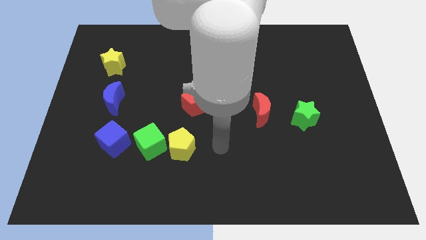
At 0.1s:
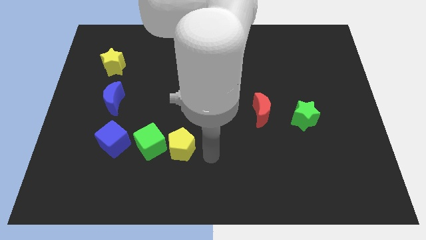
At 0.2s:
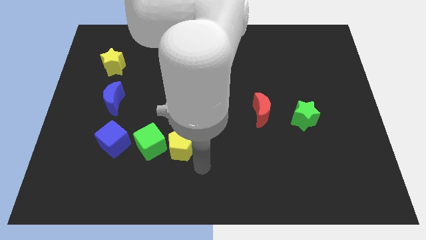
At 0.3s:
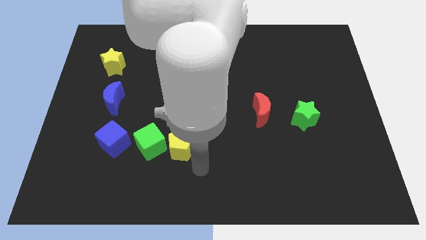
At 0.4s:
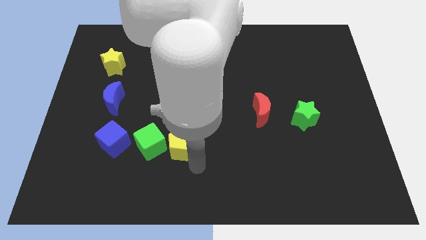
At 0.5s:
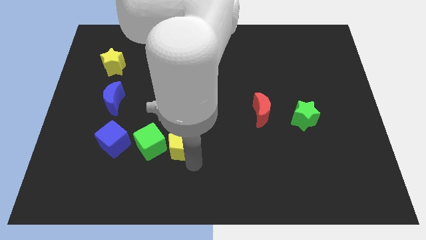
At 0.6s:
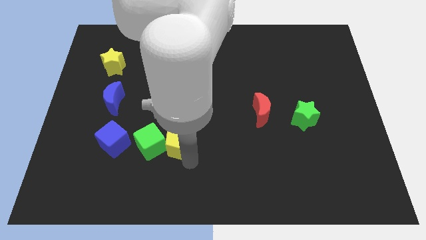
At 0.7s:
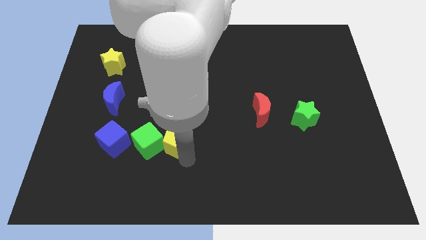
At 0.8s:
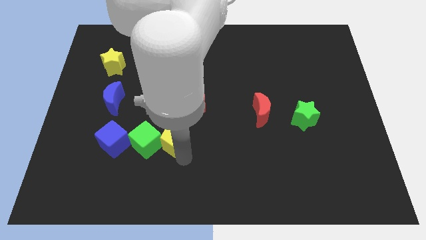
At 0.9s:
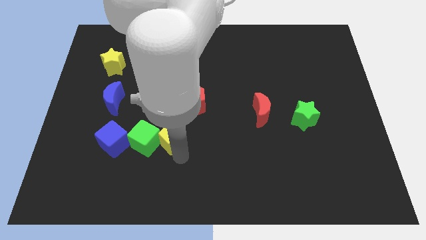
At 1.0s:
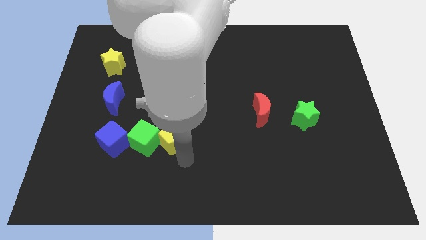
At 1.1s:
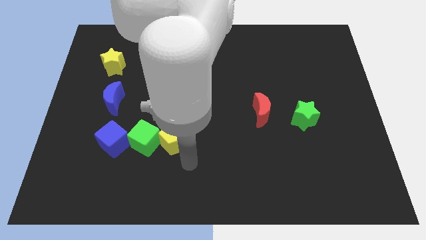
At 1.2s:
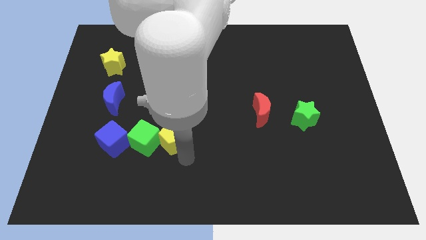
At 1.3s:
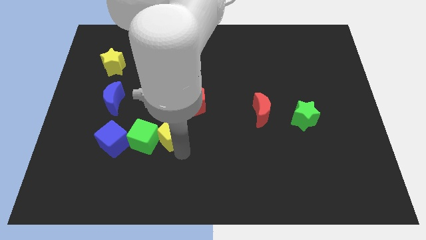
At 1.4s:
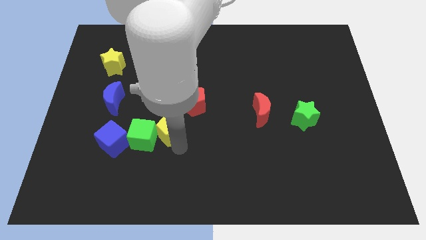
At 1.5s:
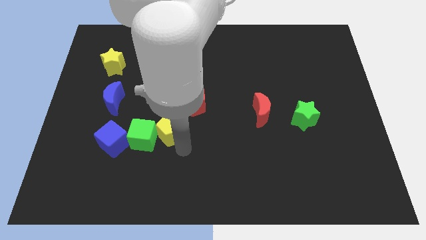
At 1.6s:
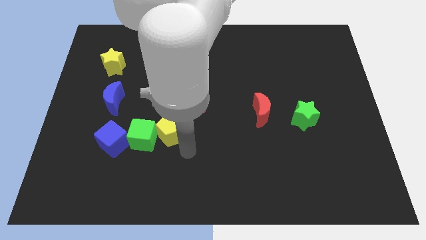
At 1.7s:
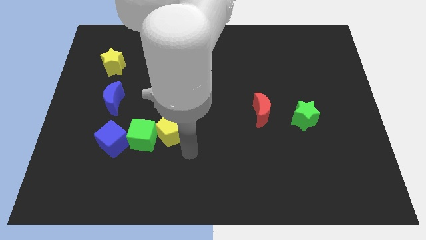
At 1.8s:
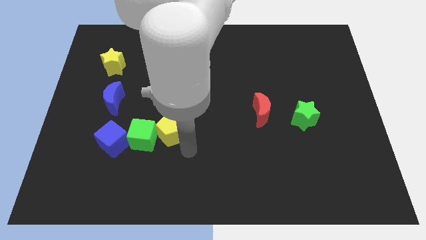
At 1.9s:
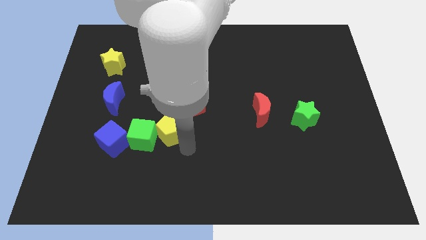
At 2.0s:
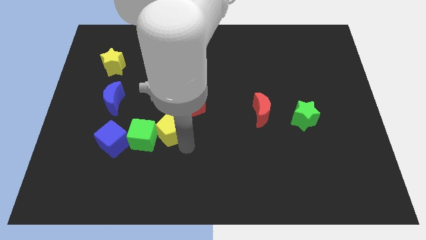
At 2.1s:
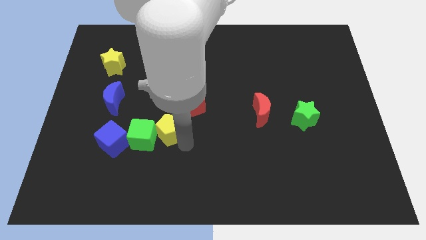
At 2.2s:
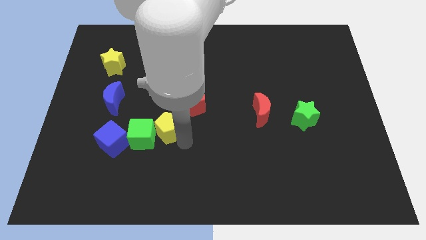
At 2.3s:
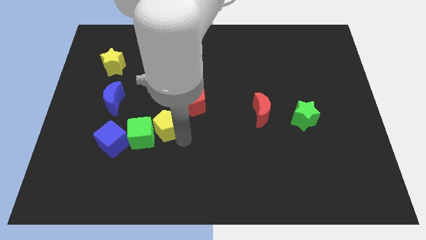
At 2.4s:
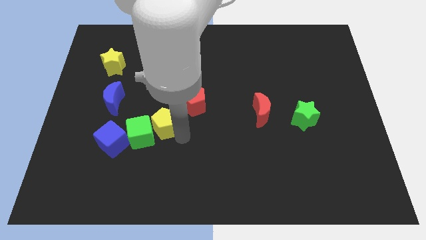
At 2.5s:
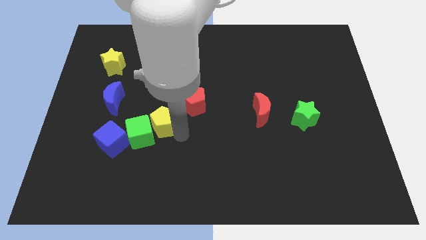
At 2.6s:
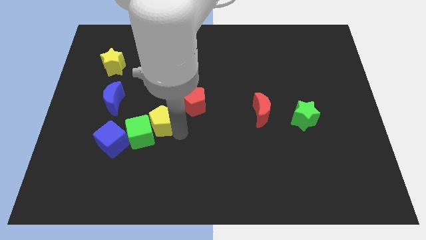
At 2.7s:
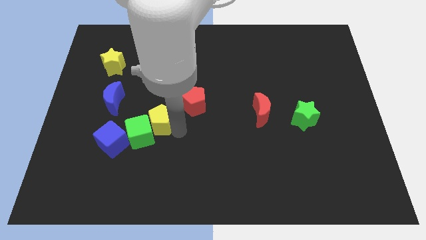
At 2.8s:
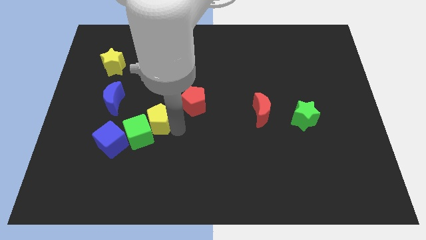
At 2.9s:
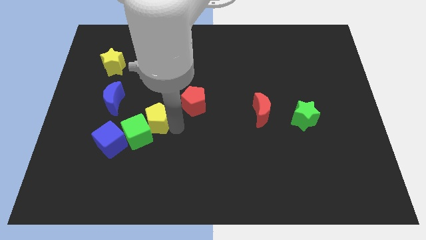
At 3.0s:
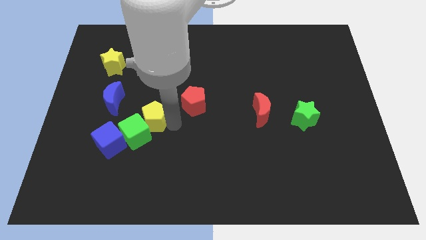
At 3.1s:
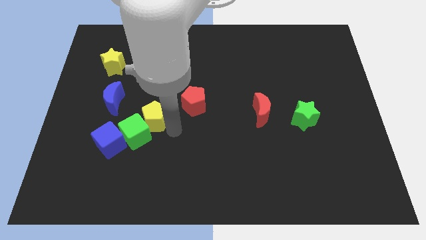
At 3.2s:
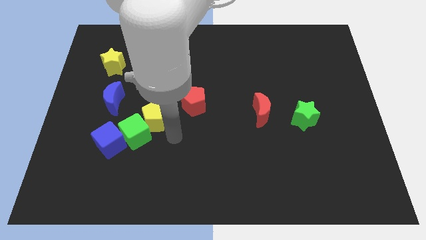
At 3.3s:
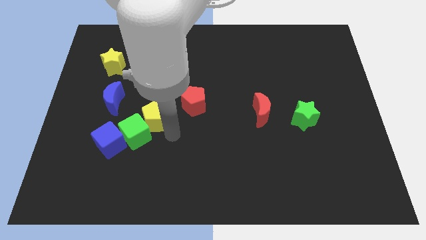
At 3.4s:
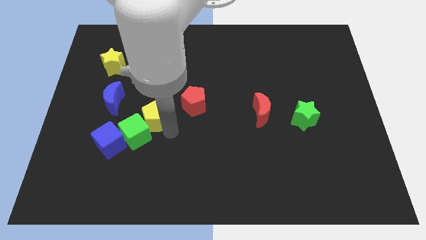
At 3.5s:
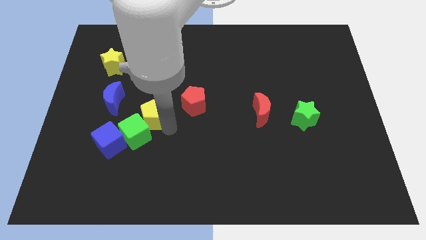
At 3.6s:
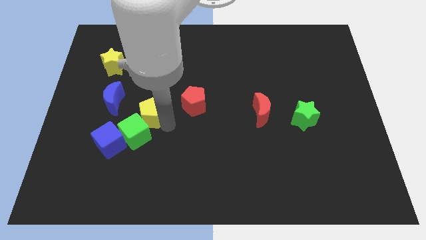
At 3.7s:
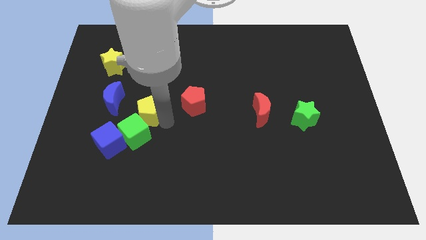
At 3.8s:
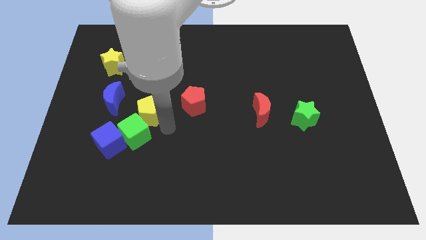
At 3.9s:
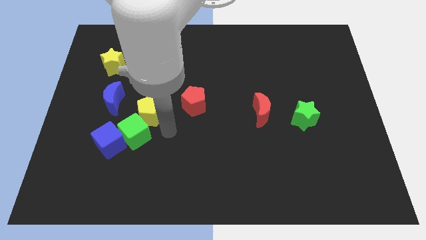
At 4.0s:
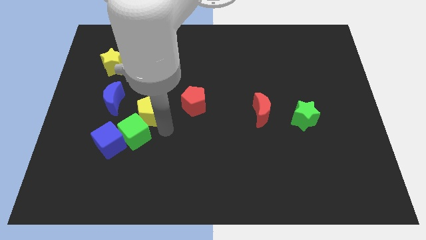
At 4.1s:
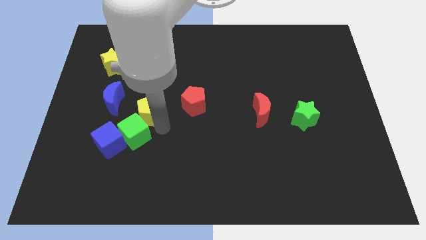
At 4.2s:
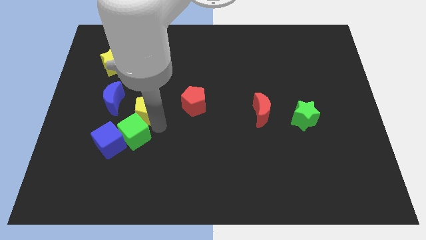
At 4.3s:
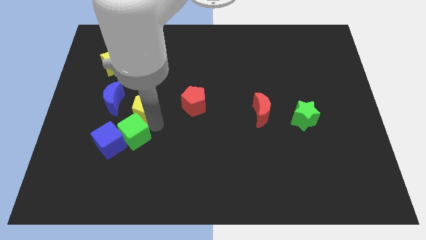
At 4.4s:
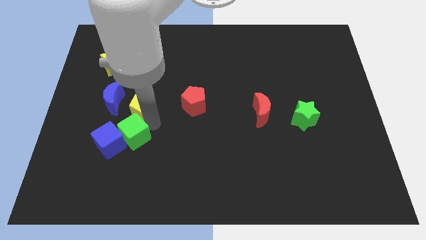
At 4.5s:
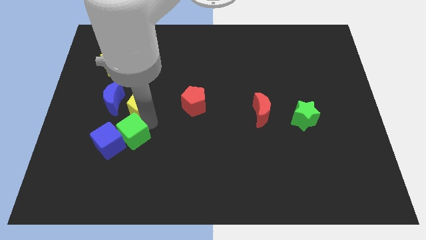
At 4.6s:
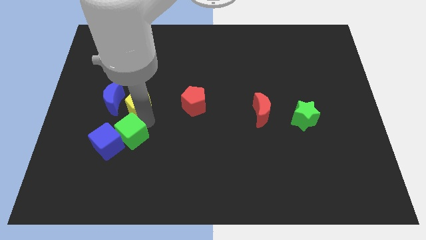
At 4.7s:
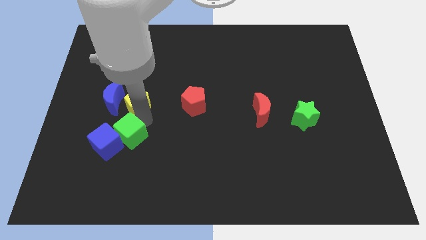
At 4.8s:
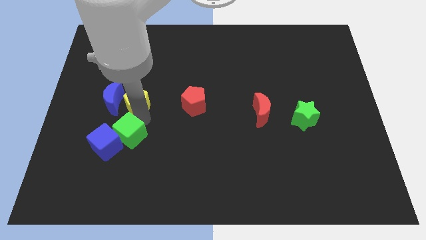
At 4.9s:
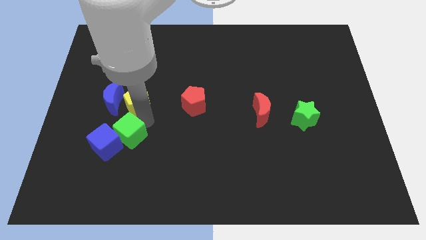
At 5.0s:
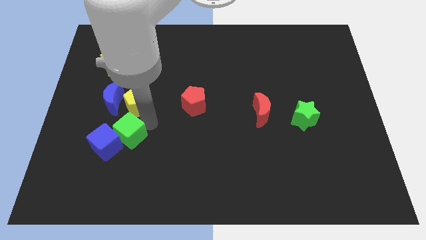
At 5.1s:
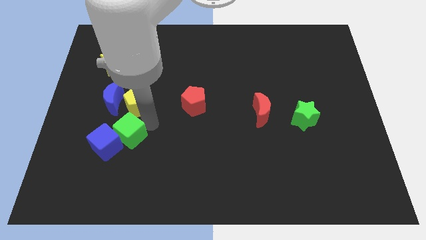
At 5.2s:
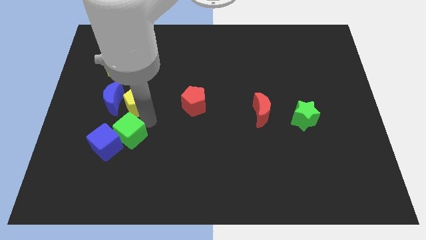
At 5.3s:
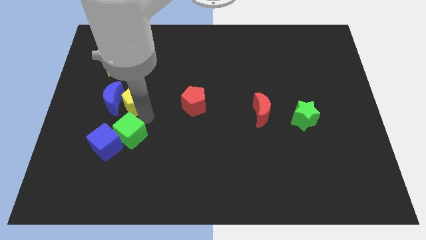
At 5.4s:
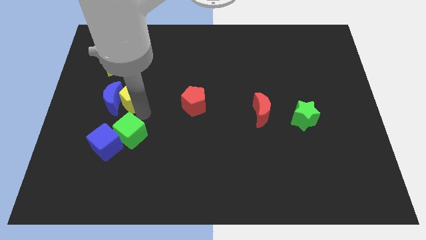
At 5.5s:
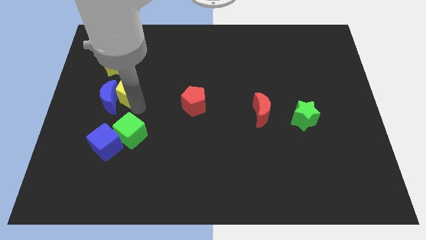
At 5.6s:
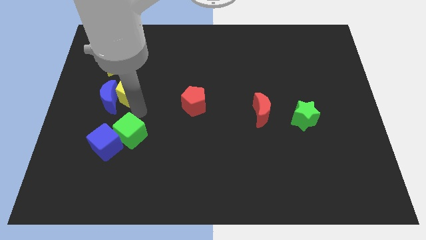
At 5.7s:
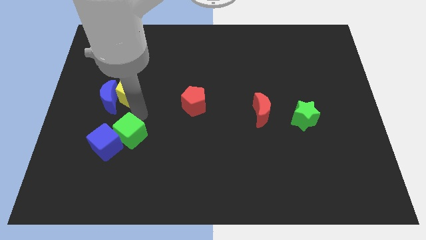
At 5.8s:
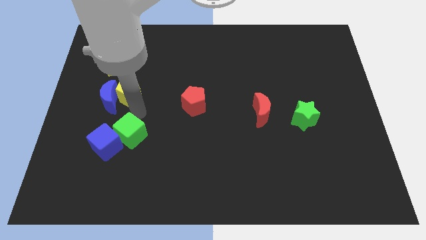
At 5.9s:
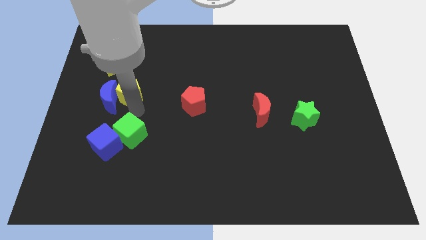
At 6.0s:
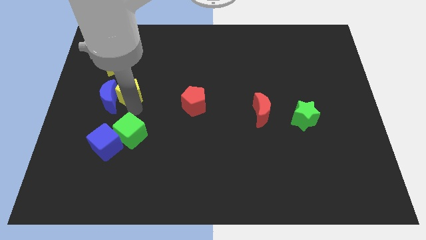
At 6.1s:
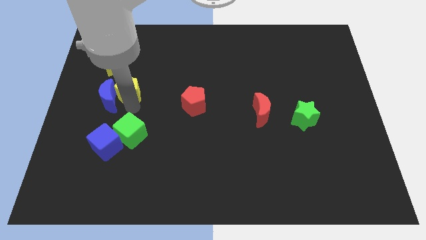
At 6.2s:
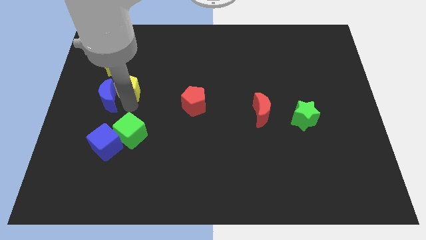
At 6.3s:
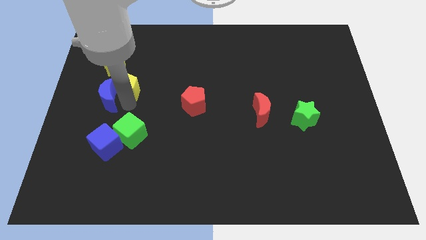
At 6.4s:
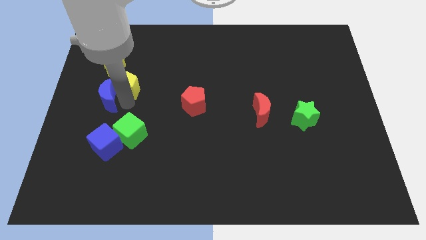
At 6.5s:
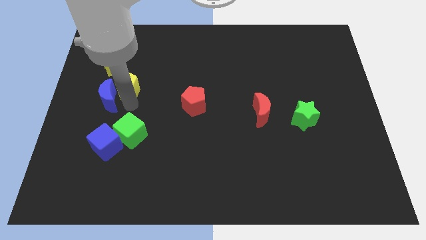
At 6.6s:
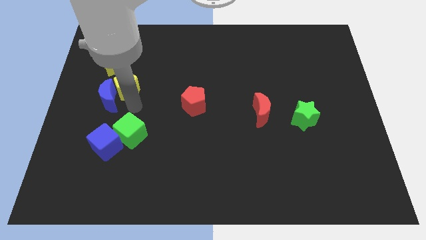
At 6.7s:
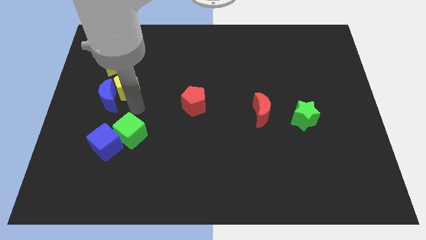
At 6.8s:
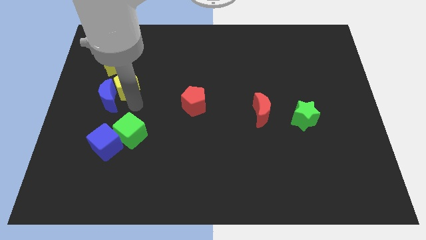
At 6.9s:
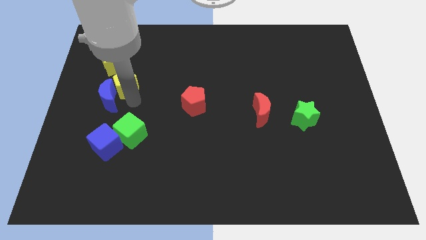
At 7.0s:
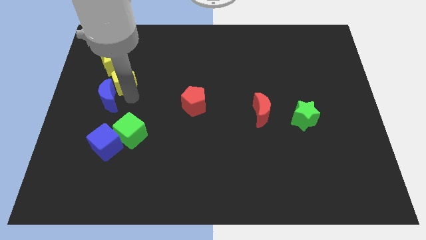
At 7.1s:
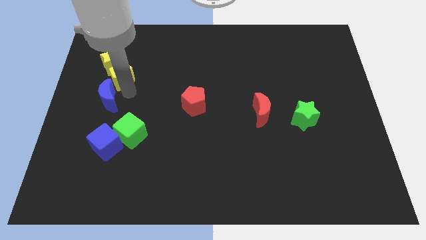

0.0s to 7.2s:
move the yellow pentagon next to the yellow star

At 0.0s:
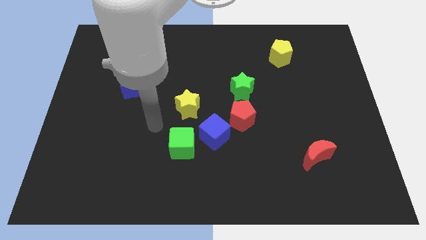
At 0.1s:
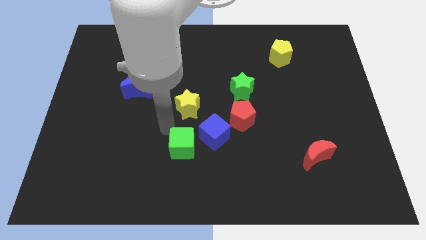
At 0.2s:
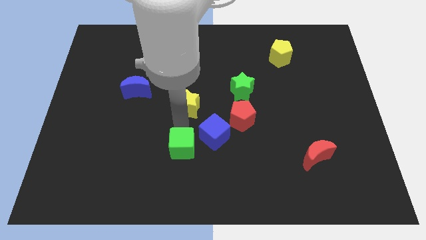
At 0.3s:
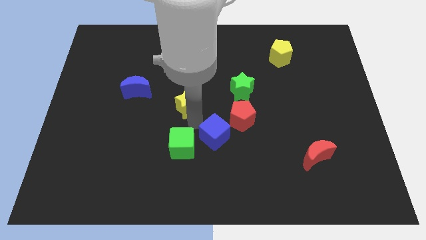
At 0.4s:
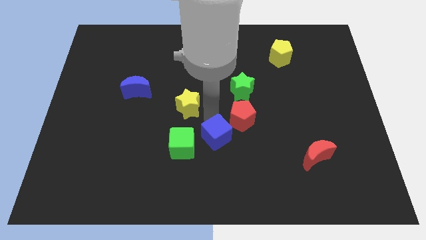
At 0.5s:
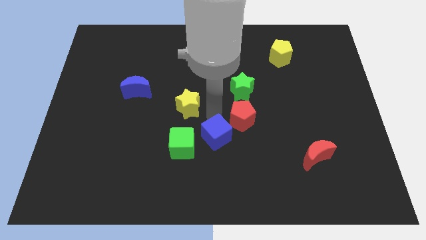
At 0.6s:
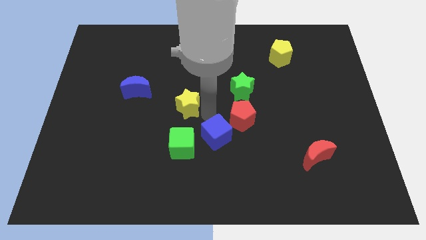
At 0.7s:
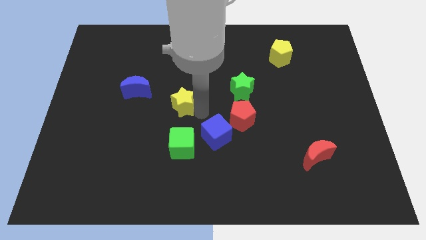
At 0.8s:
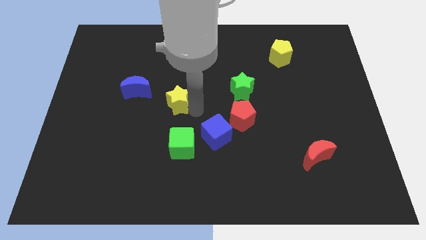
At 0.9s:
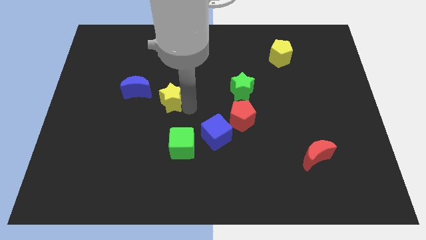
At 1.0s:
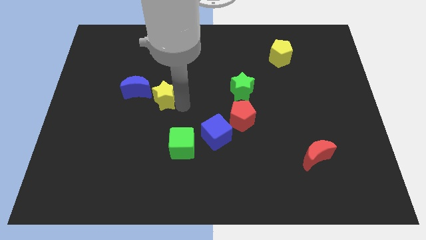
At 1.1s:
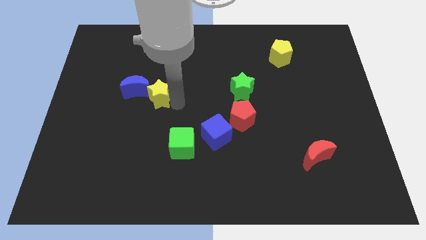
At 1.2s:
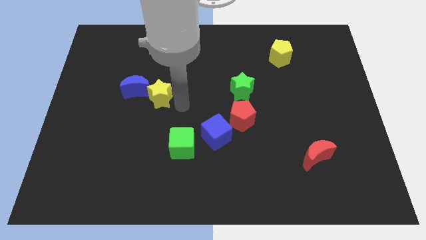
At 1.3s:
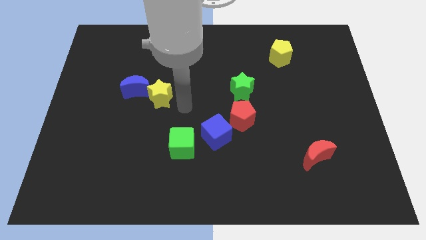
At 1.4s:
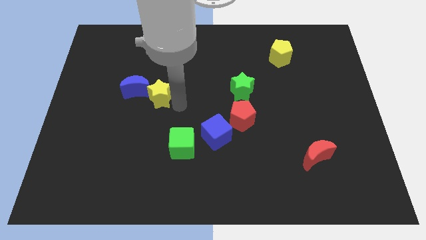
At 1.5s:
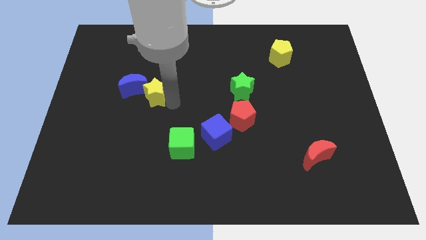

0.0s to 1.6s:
slide the yellow star towards the blue moon
